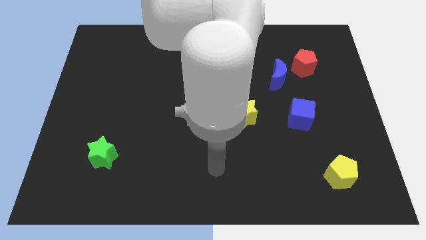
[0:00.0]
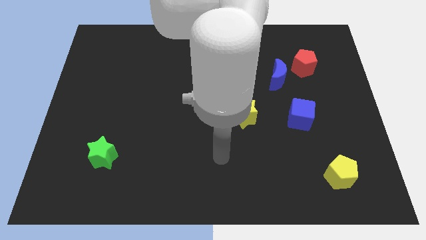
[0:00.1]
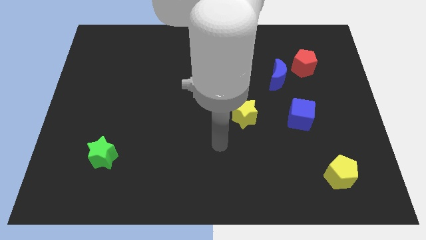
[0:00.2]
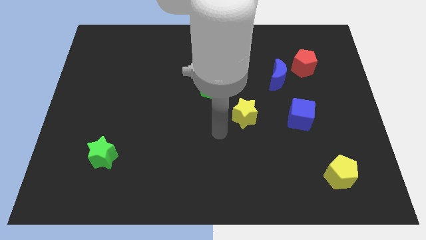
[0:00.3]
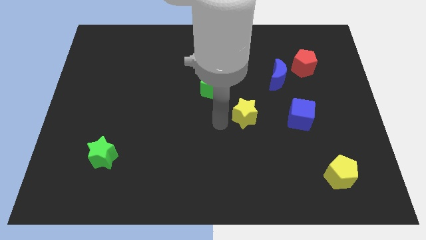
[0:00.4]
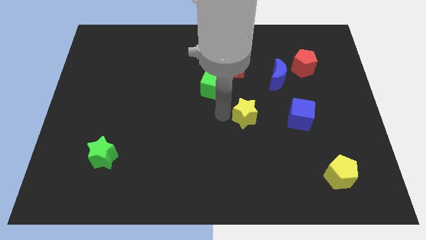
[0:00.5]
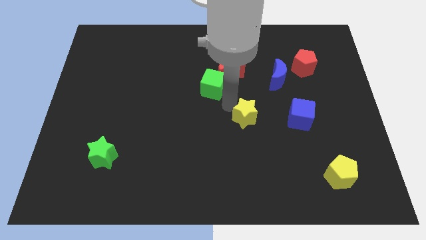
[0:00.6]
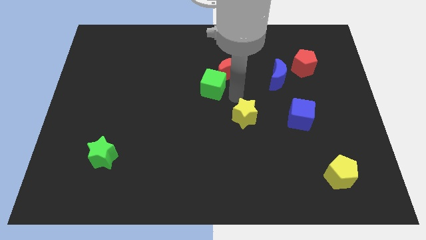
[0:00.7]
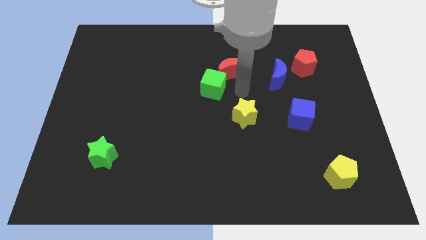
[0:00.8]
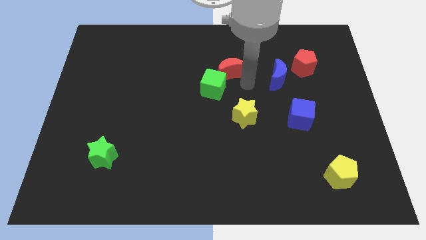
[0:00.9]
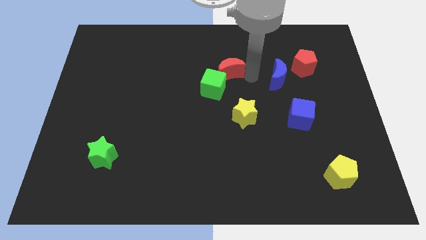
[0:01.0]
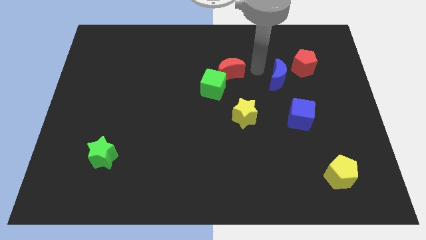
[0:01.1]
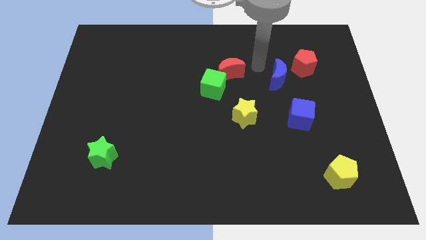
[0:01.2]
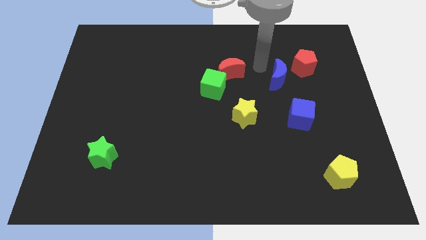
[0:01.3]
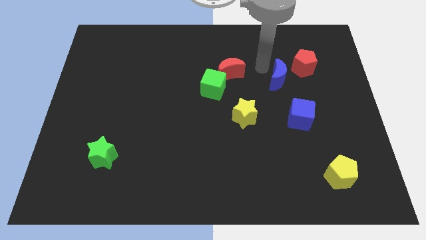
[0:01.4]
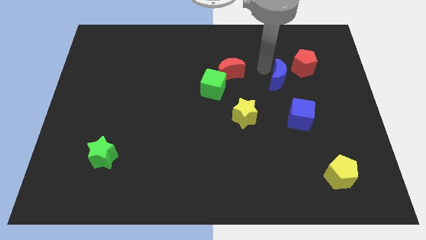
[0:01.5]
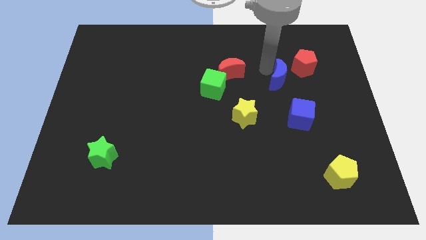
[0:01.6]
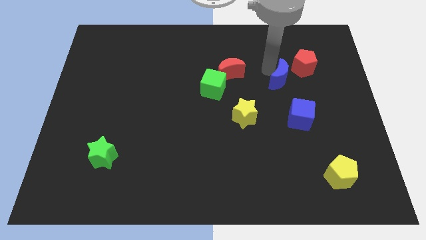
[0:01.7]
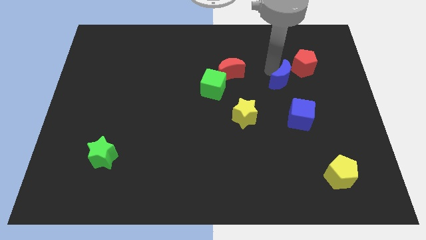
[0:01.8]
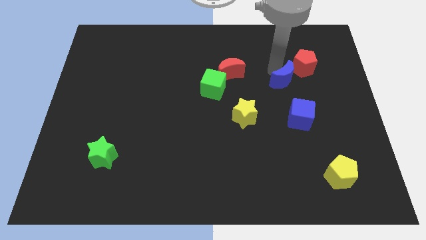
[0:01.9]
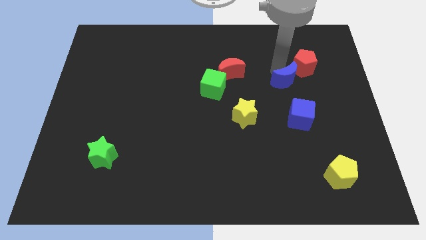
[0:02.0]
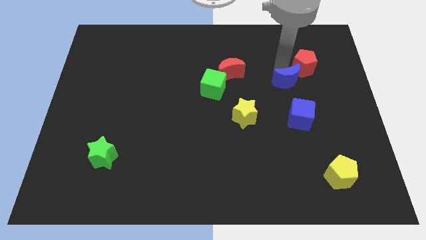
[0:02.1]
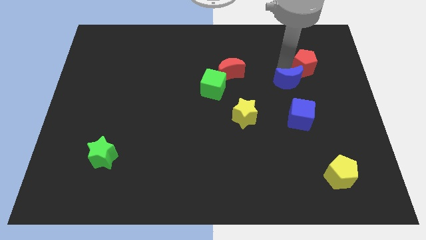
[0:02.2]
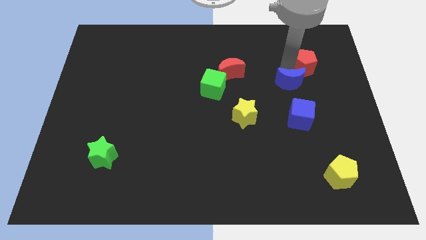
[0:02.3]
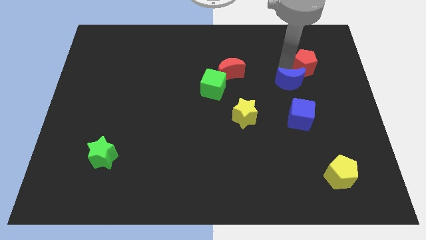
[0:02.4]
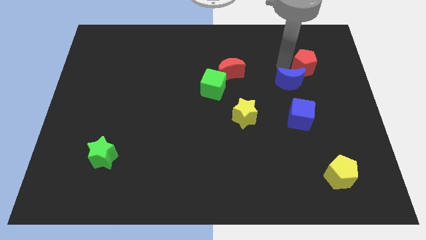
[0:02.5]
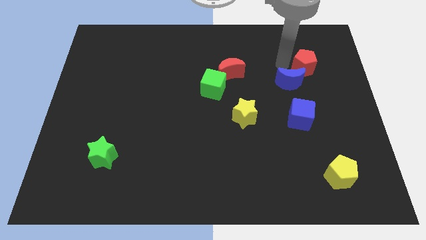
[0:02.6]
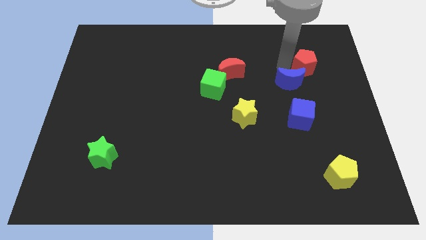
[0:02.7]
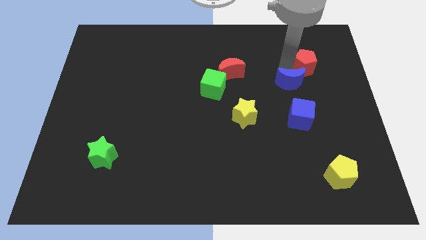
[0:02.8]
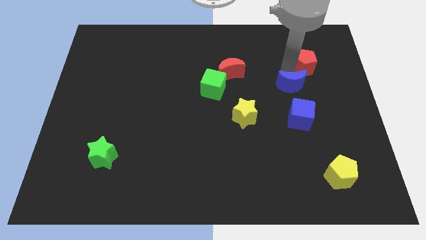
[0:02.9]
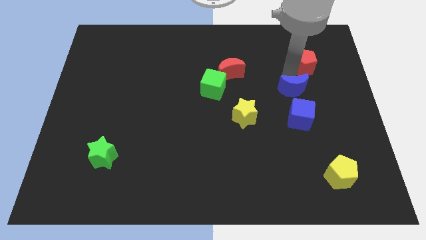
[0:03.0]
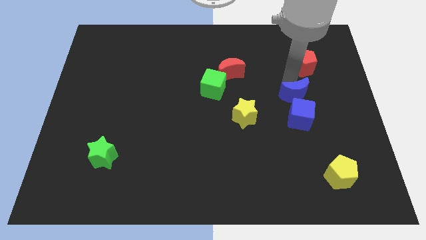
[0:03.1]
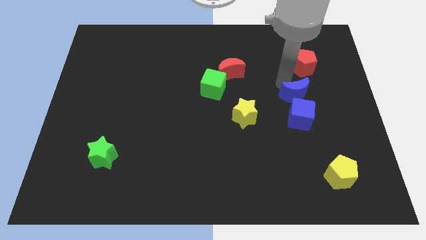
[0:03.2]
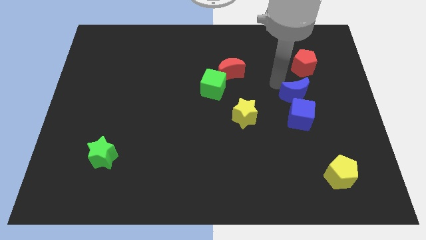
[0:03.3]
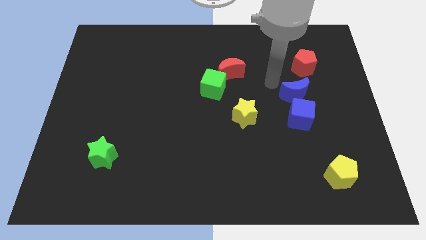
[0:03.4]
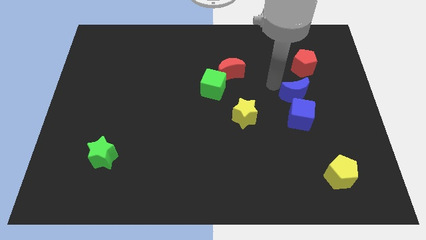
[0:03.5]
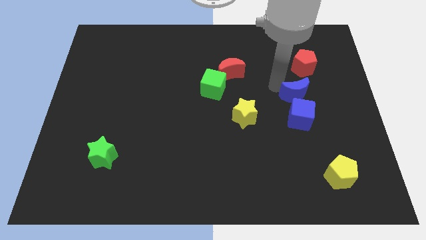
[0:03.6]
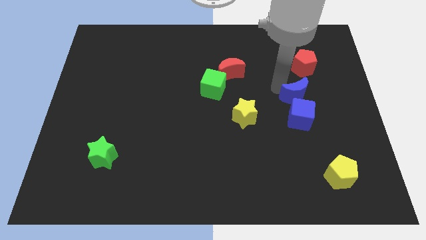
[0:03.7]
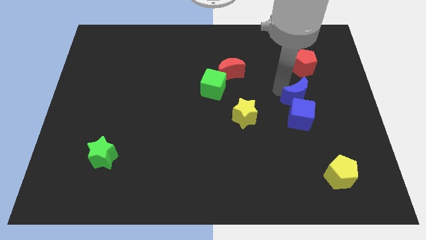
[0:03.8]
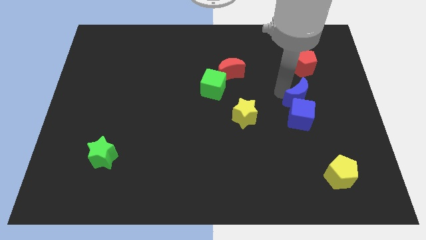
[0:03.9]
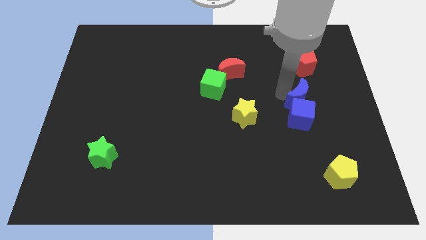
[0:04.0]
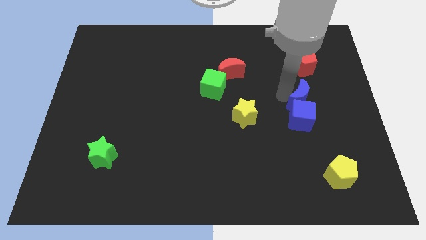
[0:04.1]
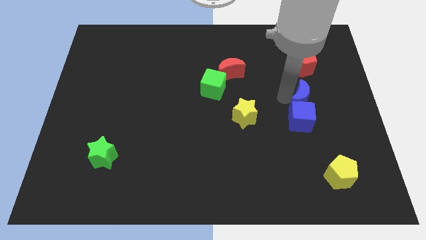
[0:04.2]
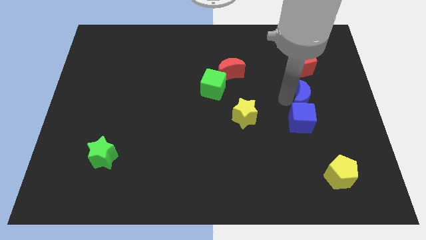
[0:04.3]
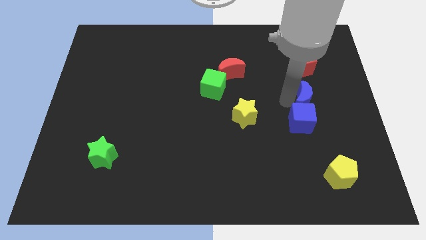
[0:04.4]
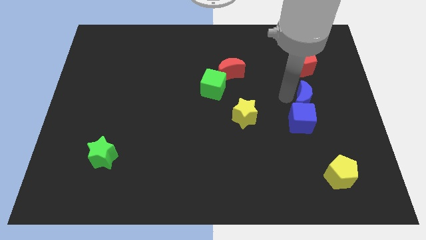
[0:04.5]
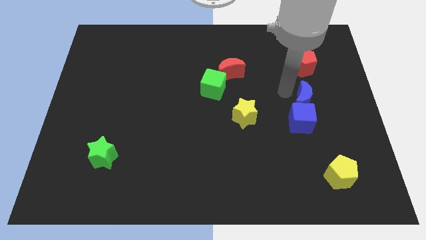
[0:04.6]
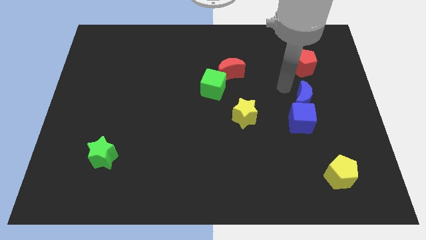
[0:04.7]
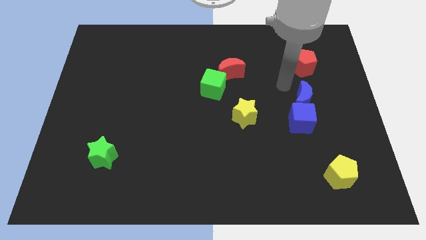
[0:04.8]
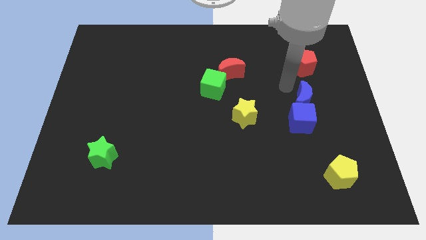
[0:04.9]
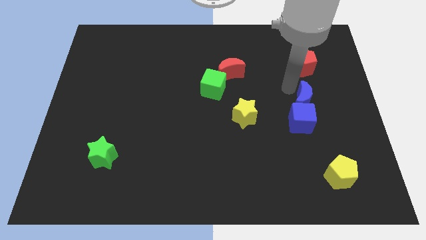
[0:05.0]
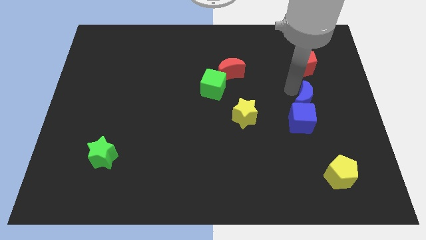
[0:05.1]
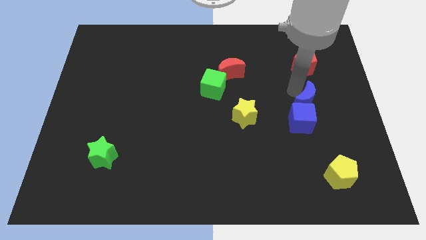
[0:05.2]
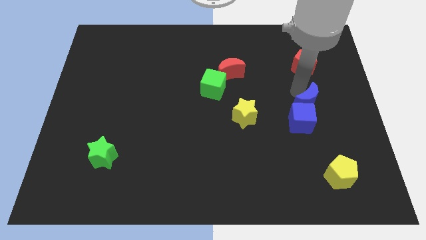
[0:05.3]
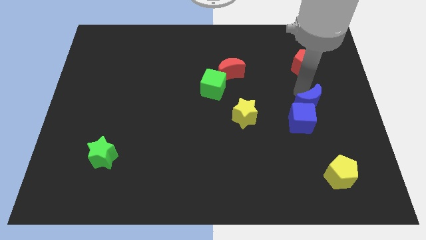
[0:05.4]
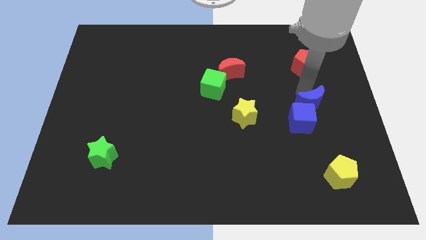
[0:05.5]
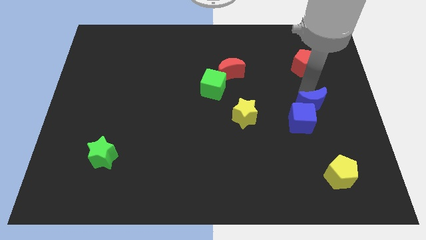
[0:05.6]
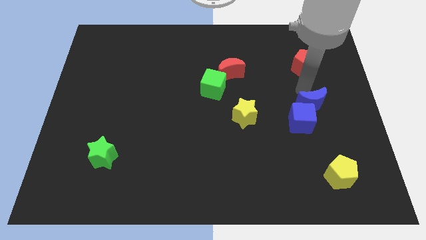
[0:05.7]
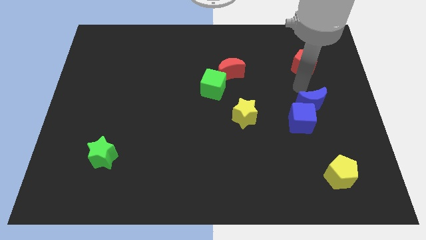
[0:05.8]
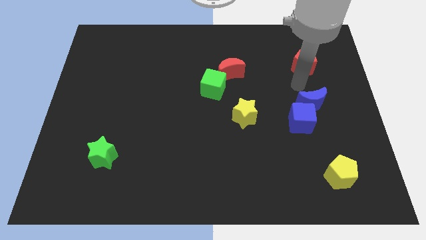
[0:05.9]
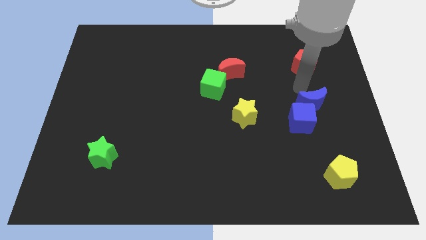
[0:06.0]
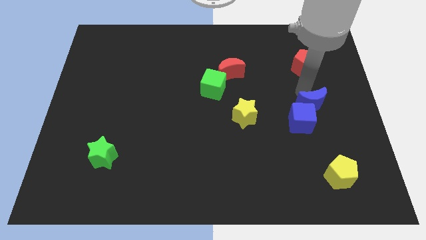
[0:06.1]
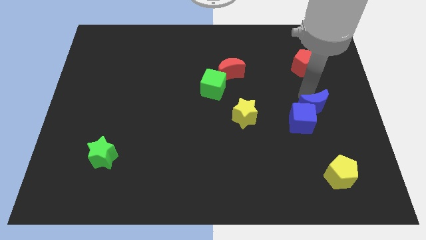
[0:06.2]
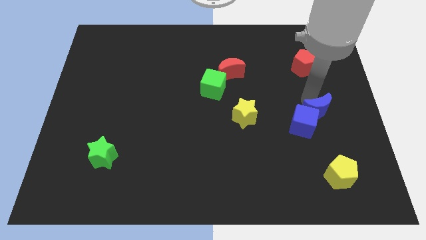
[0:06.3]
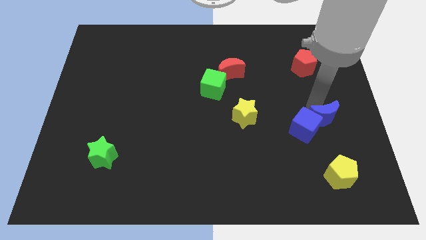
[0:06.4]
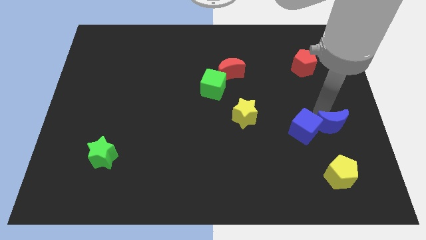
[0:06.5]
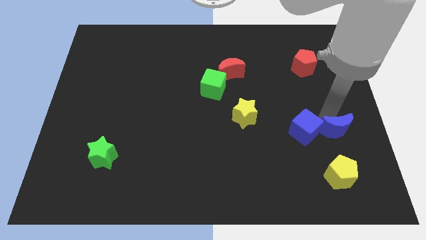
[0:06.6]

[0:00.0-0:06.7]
put the blue moon diagonally down and to the right of the blue cube

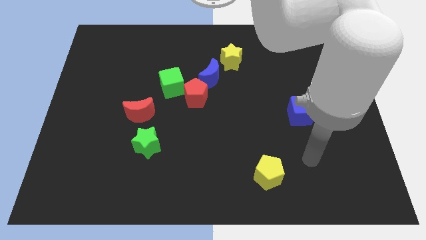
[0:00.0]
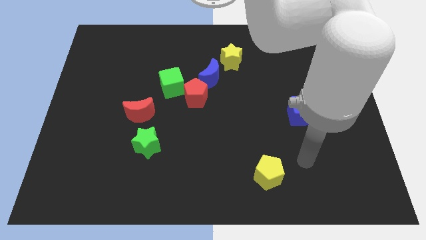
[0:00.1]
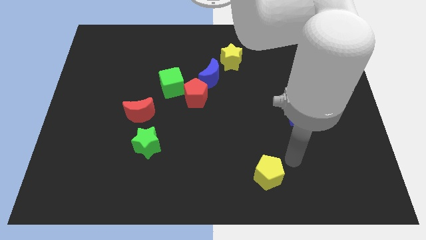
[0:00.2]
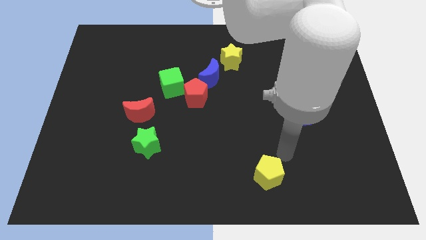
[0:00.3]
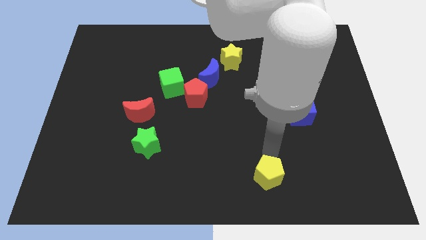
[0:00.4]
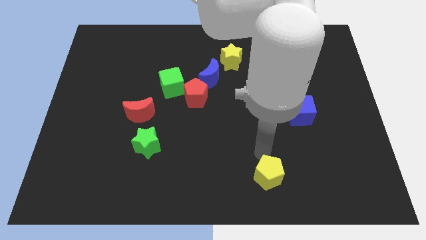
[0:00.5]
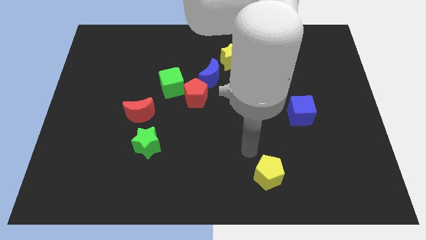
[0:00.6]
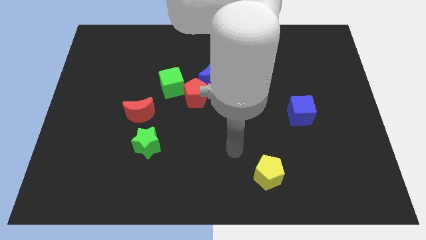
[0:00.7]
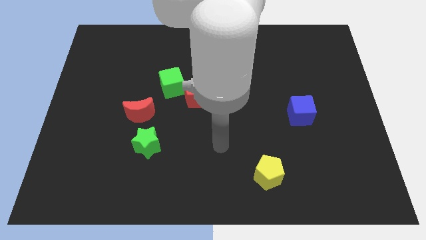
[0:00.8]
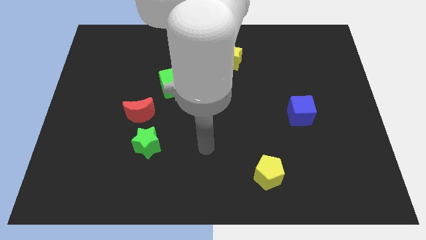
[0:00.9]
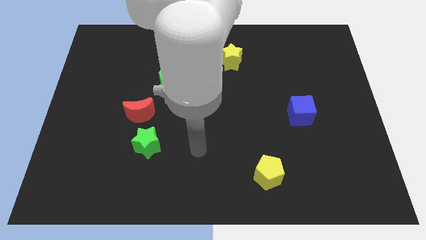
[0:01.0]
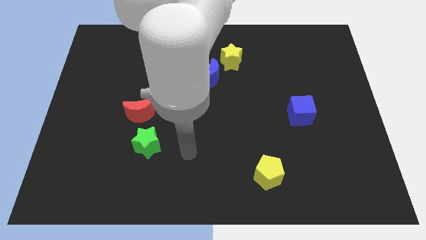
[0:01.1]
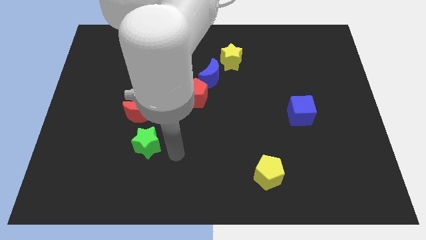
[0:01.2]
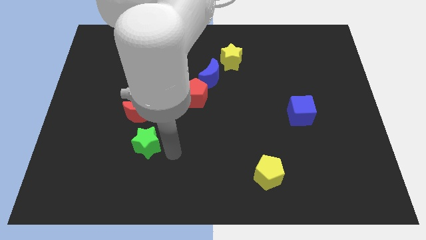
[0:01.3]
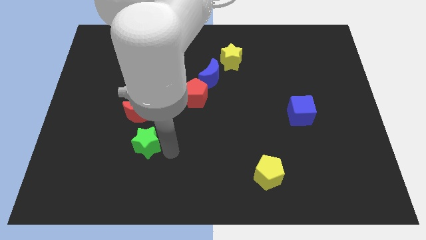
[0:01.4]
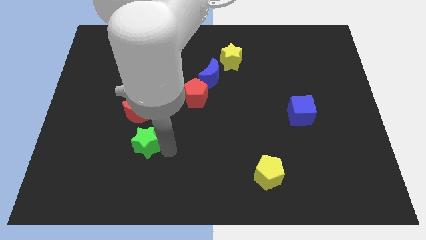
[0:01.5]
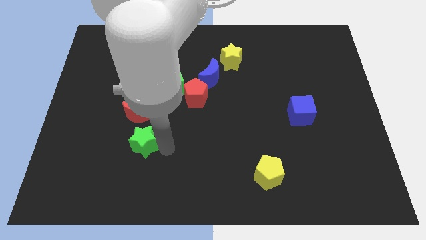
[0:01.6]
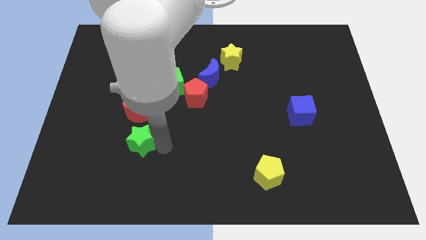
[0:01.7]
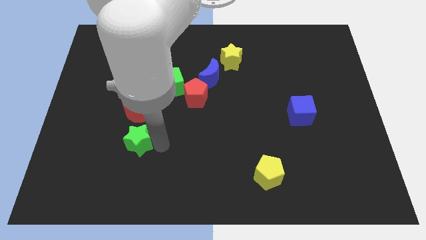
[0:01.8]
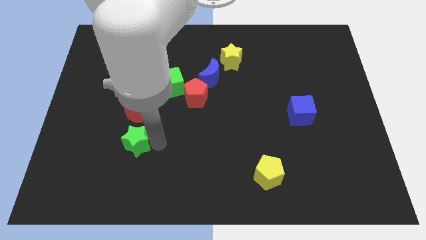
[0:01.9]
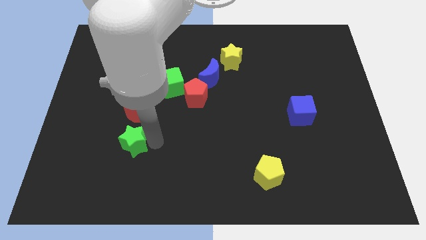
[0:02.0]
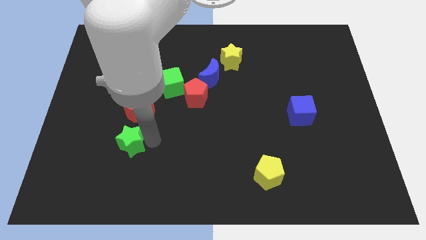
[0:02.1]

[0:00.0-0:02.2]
slide the green star to the bottom left of the red moon
